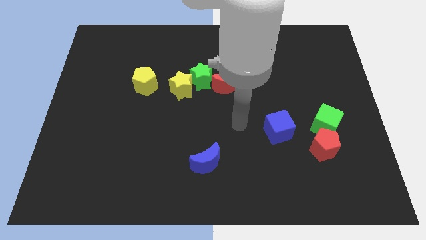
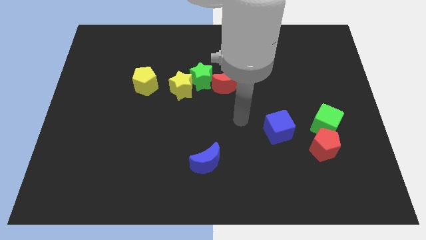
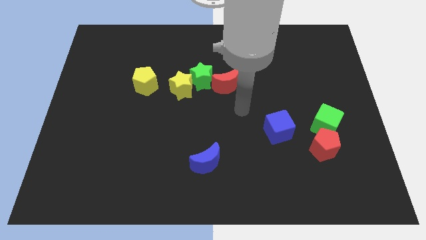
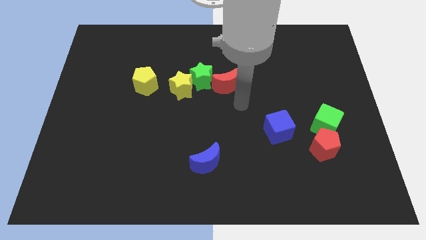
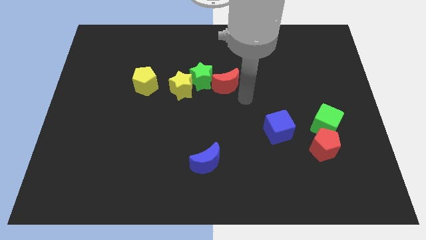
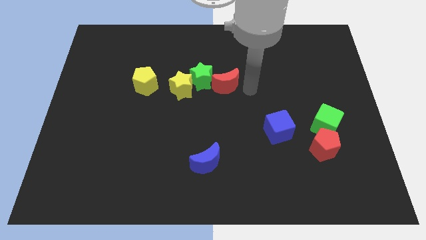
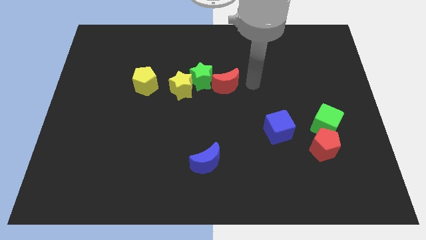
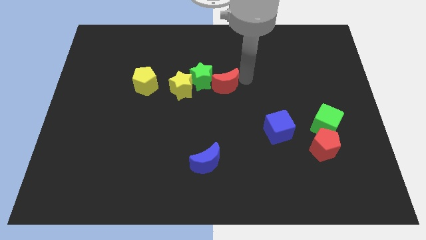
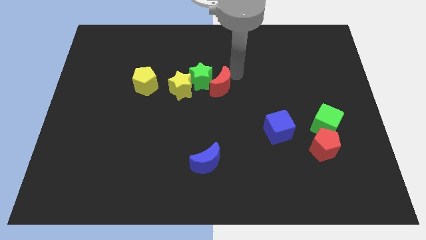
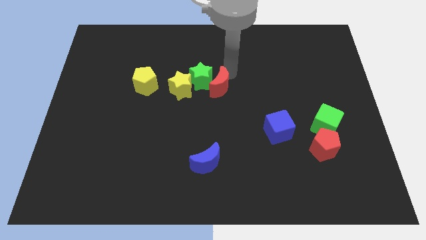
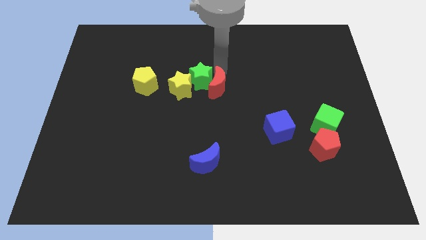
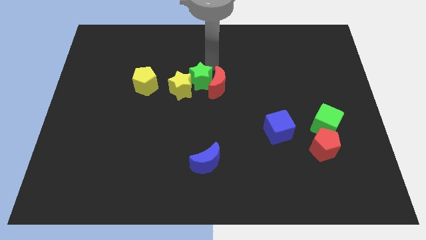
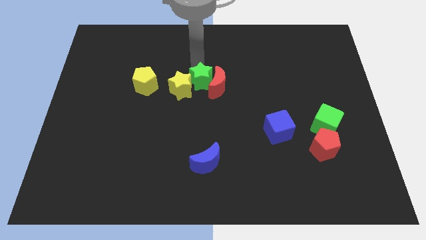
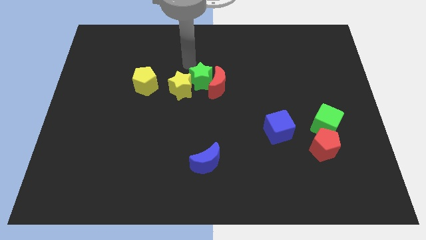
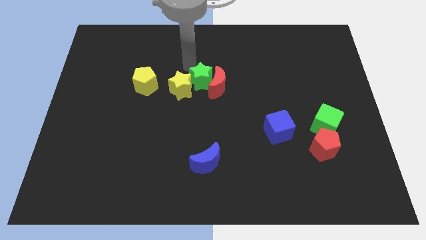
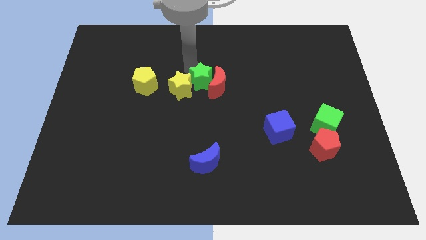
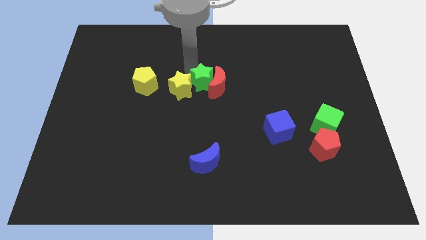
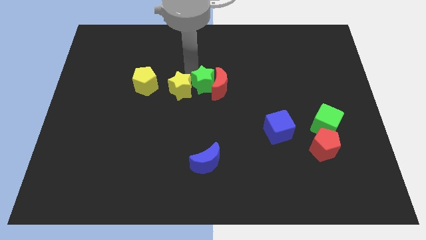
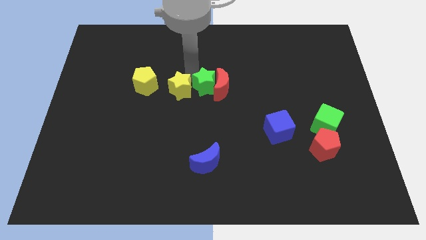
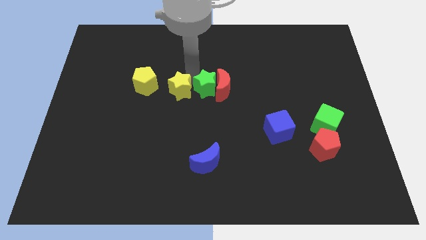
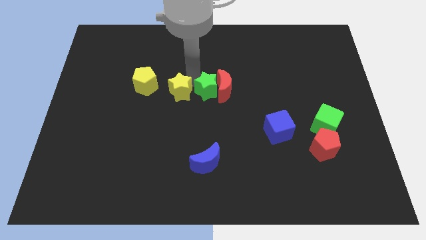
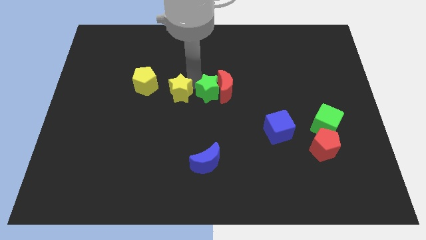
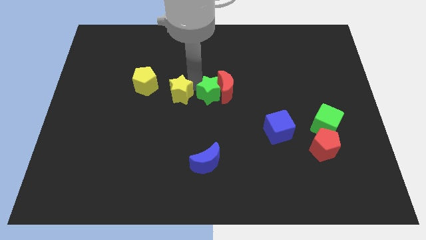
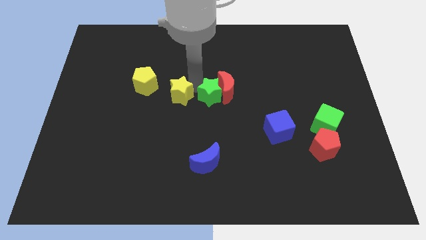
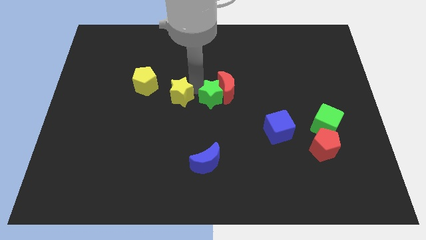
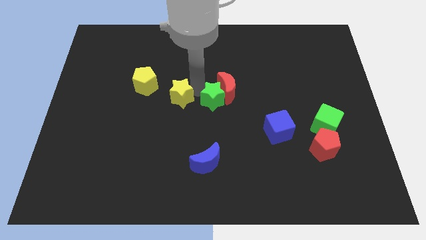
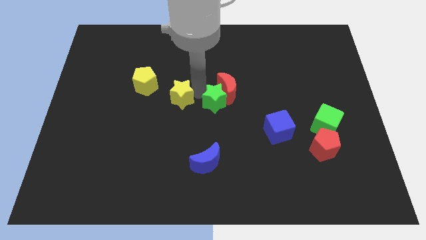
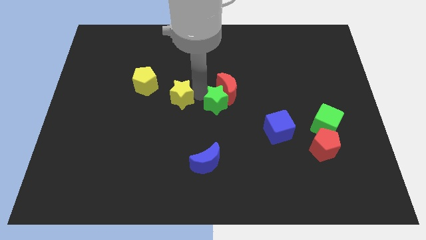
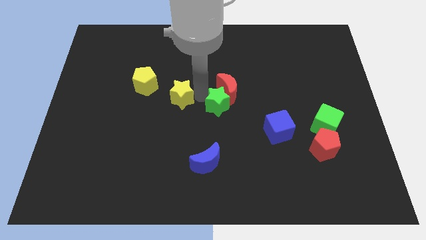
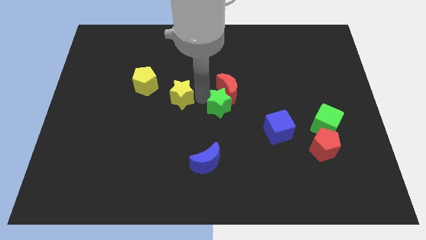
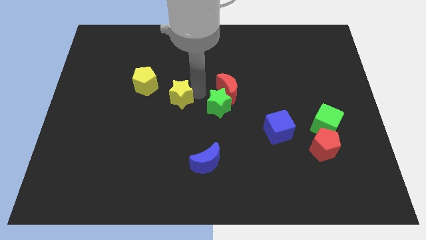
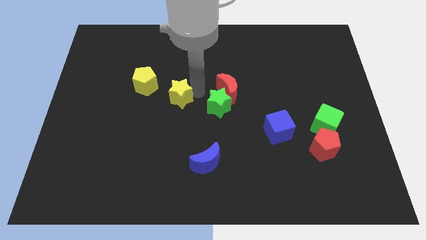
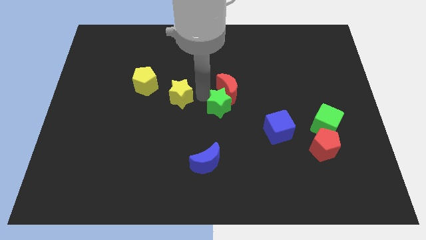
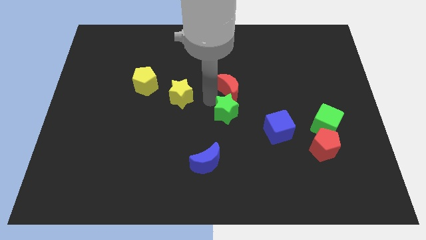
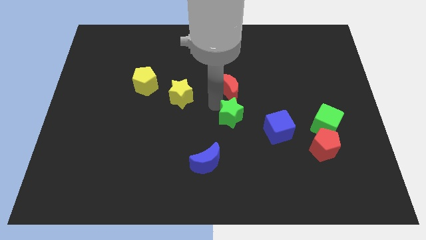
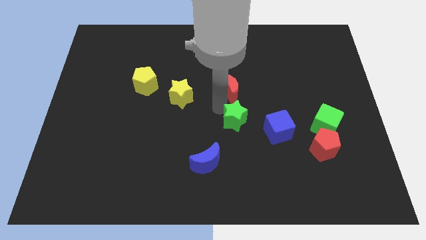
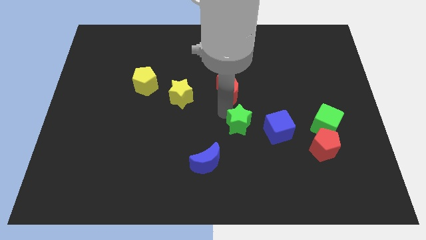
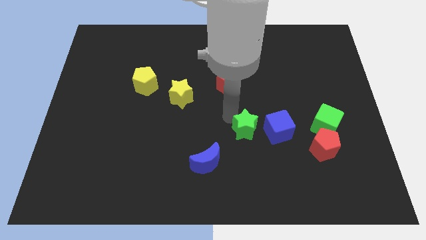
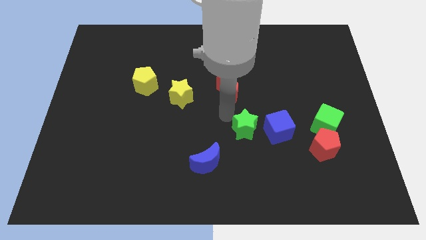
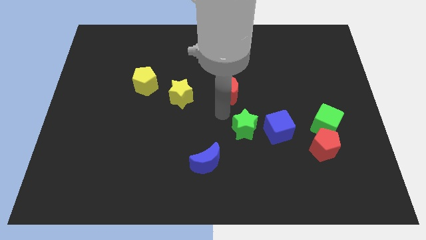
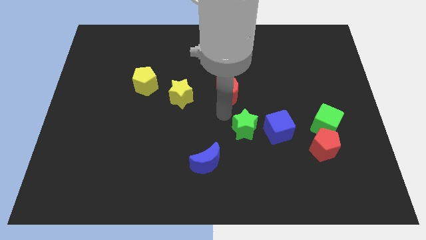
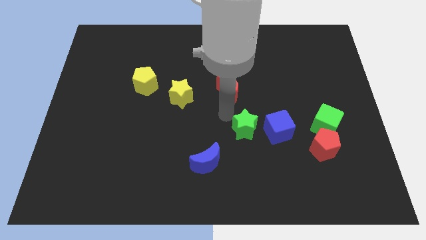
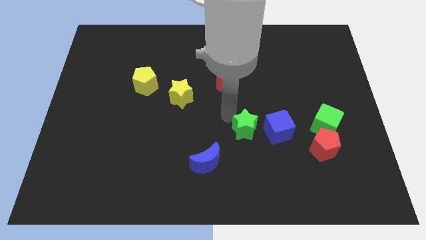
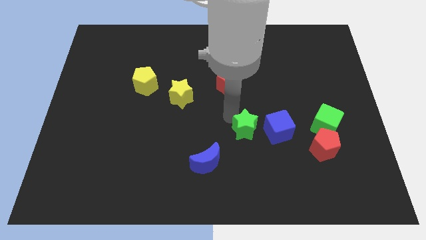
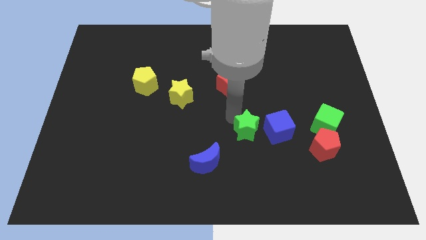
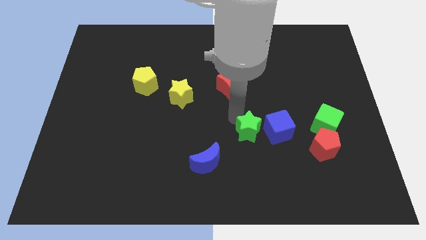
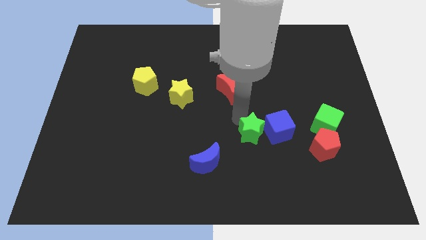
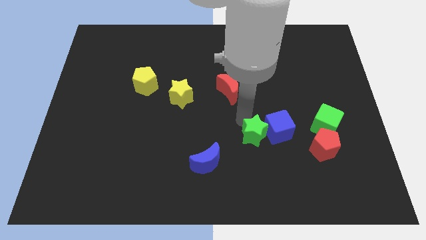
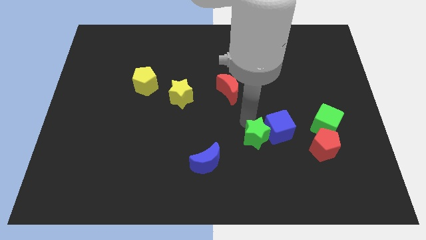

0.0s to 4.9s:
slide the green star downwards and to the right diagonally

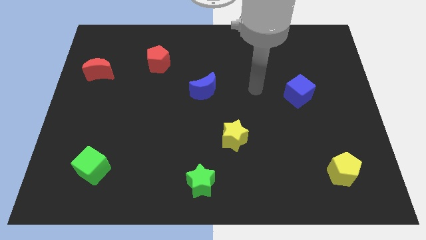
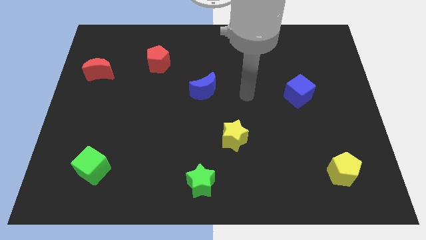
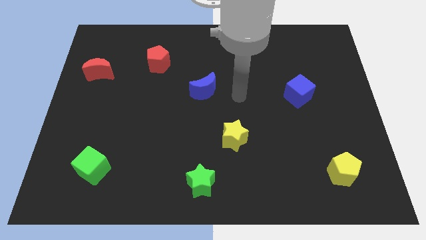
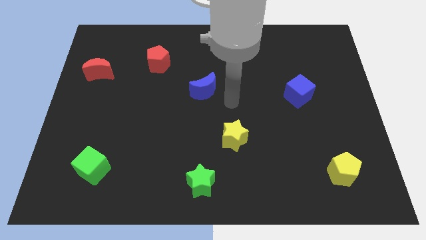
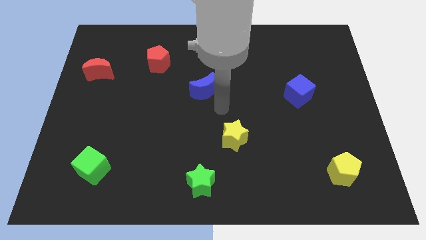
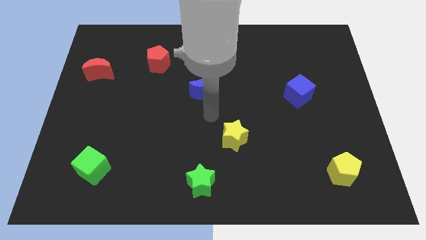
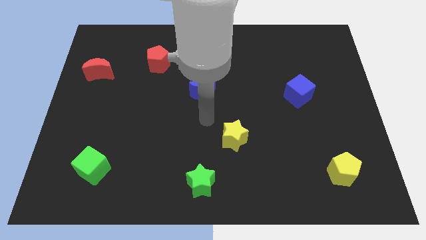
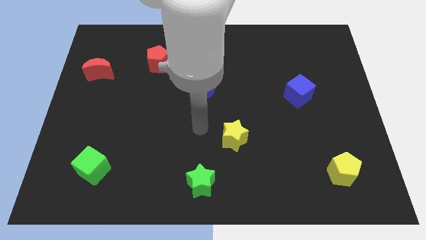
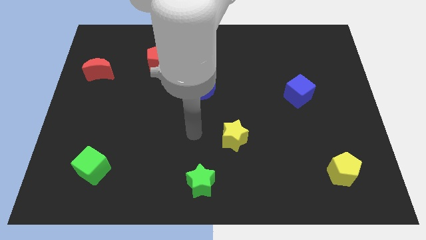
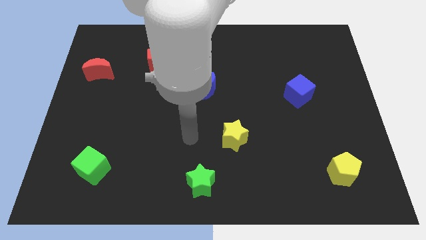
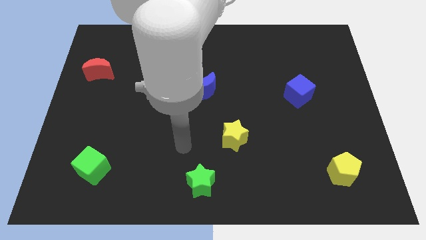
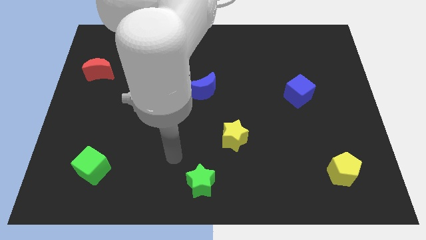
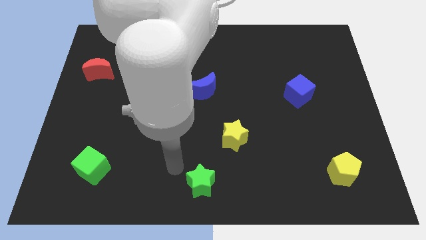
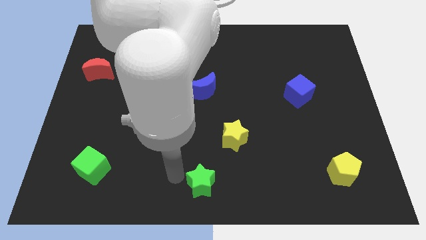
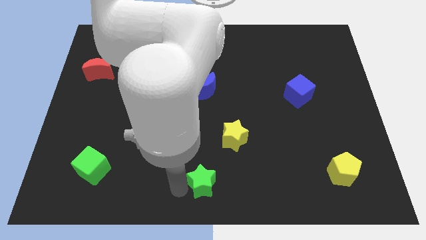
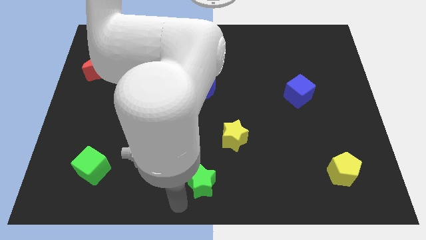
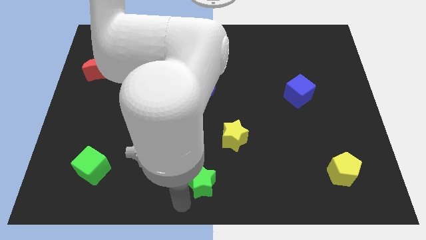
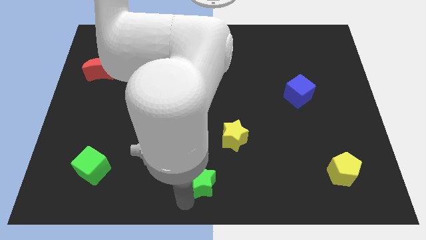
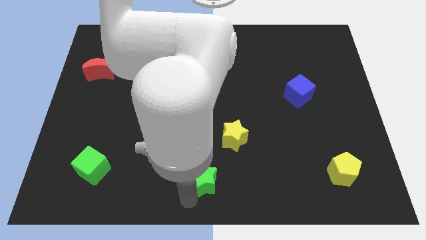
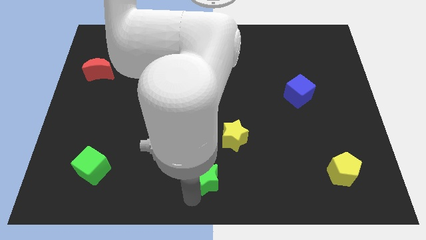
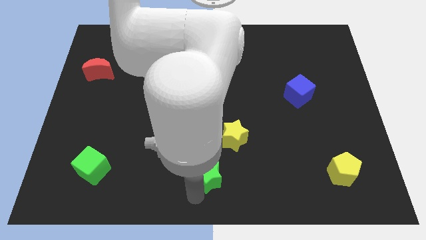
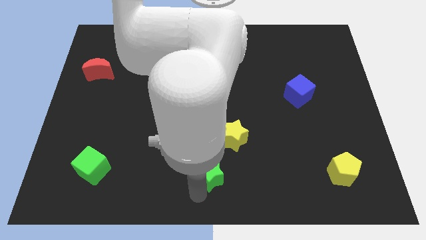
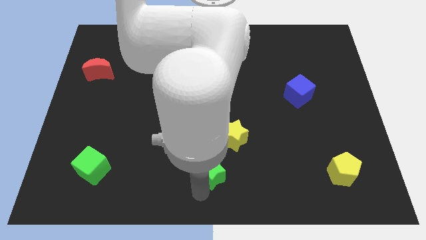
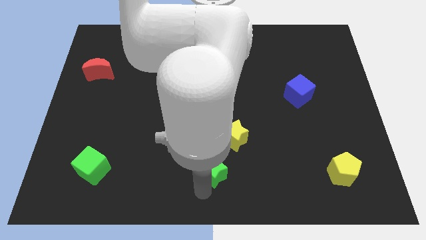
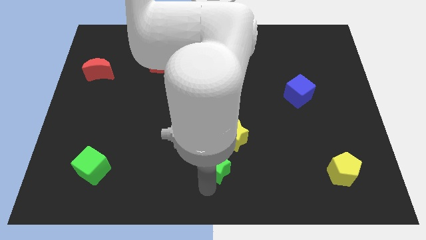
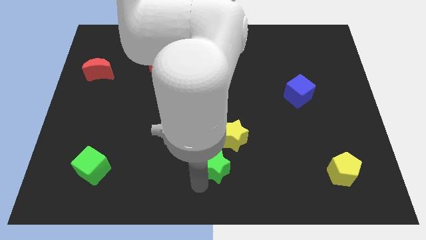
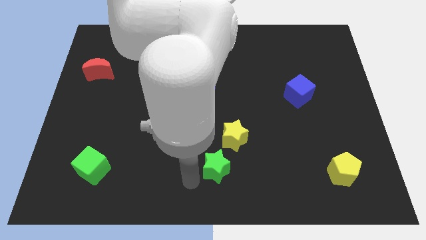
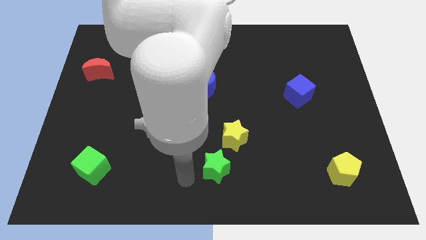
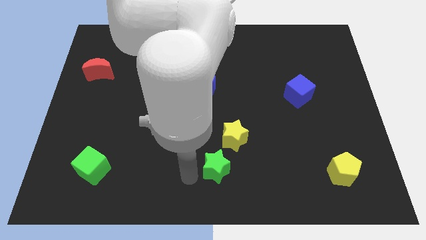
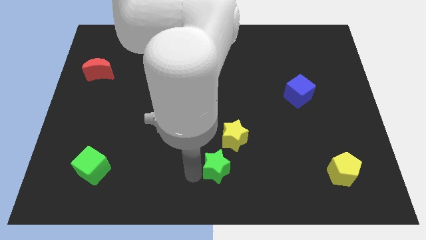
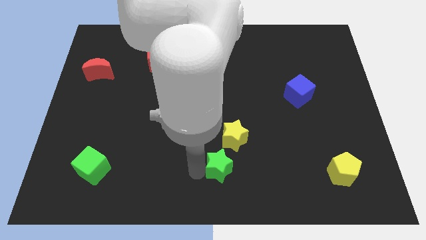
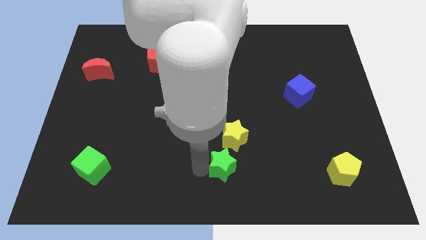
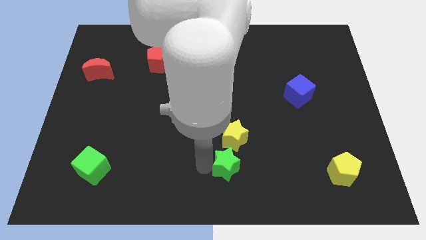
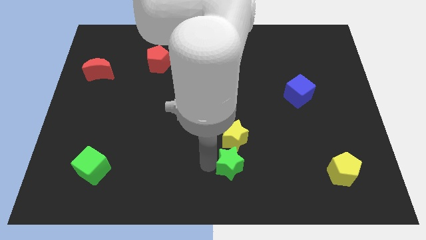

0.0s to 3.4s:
slide the green star diagonally upwards and to the right somewhat
